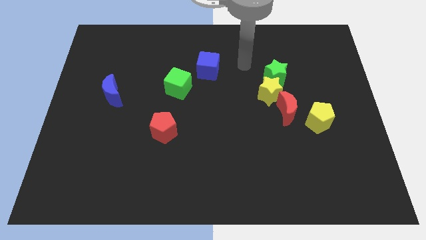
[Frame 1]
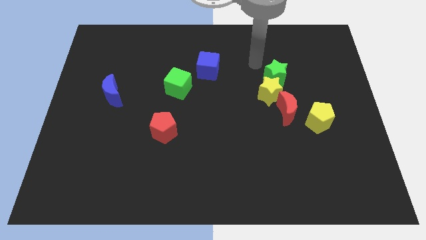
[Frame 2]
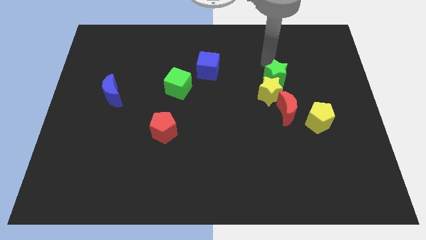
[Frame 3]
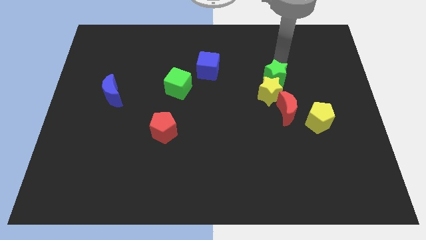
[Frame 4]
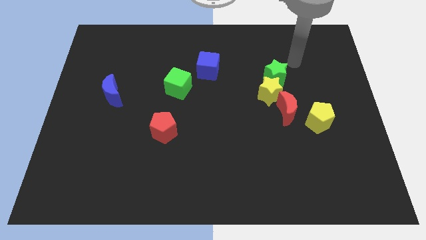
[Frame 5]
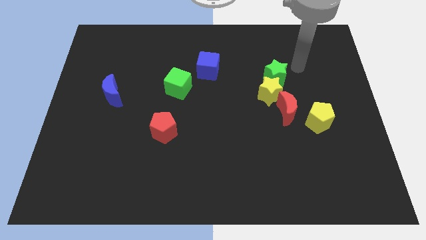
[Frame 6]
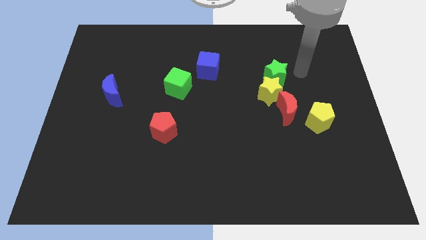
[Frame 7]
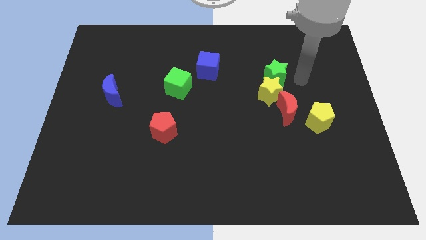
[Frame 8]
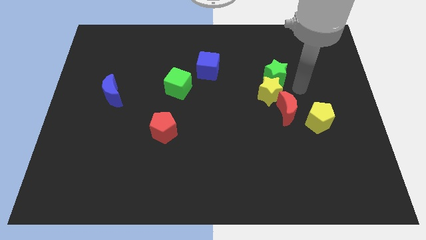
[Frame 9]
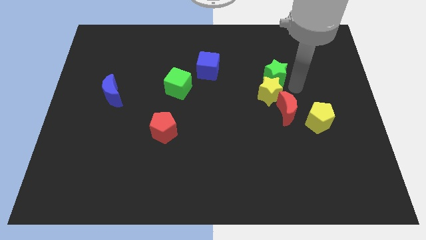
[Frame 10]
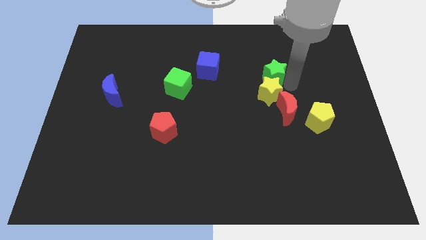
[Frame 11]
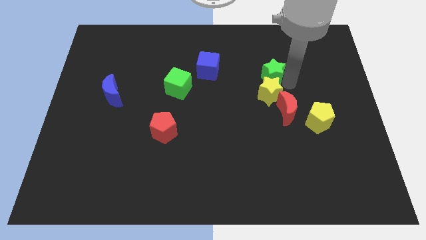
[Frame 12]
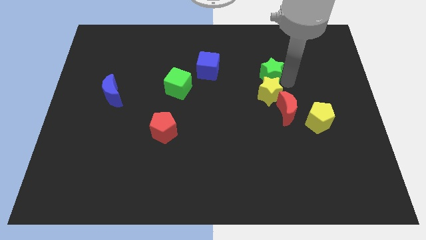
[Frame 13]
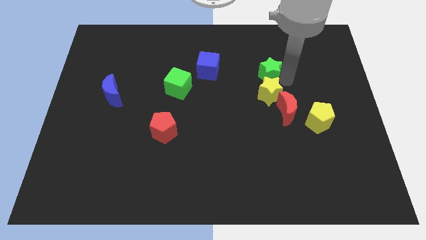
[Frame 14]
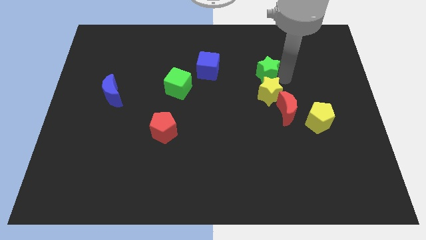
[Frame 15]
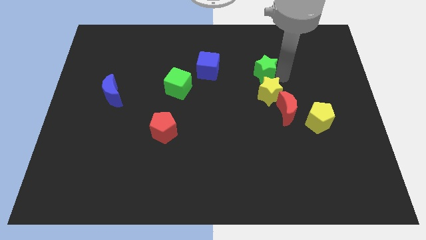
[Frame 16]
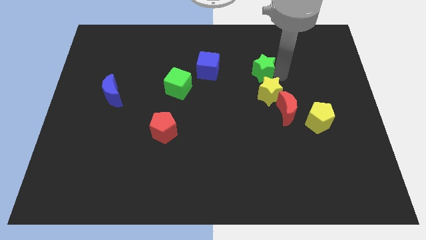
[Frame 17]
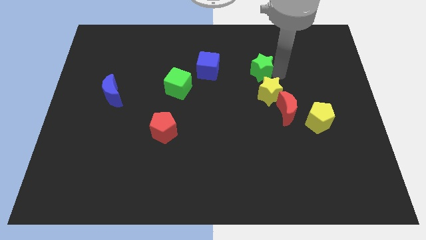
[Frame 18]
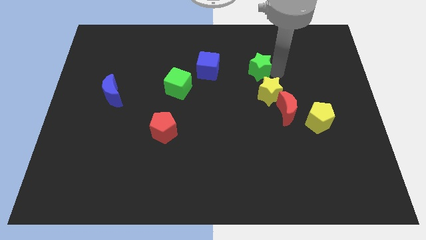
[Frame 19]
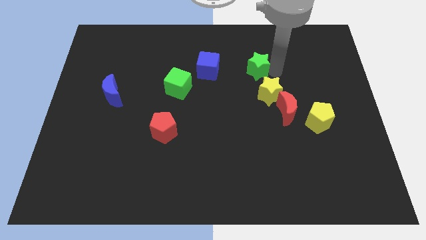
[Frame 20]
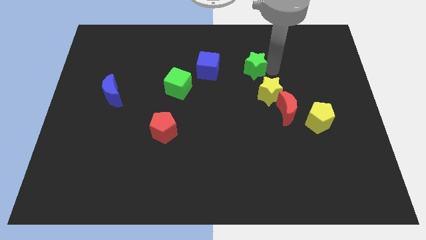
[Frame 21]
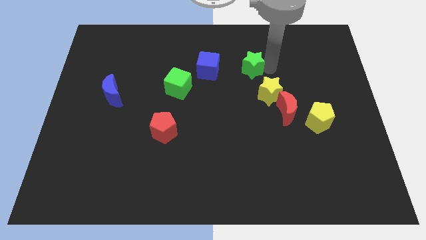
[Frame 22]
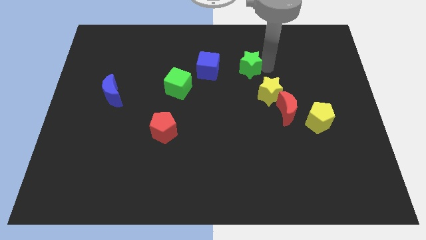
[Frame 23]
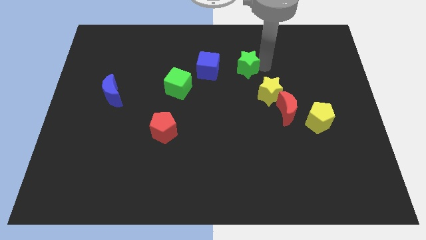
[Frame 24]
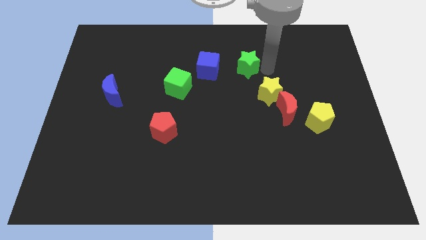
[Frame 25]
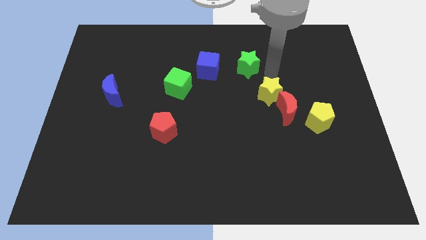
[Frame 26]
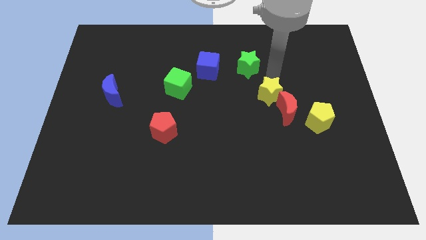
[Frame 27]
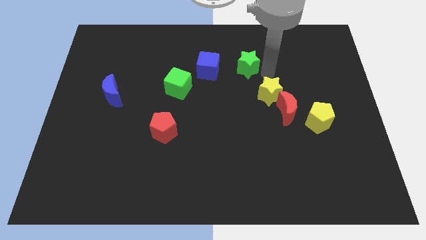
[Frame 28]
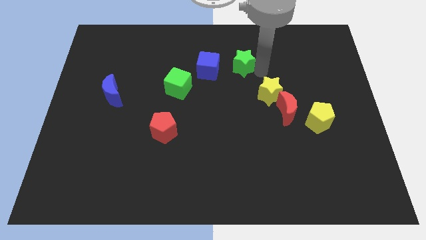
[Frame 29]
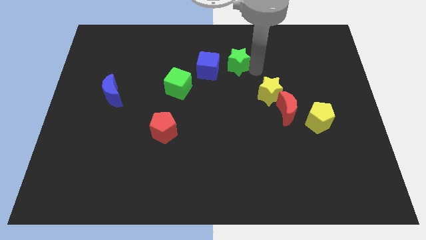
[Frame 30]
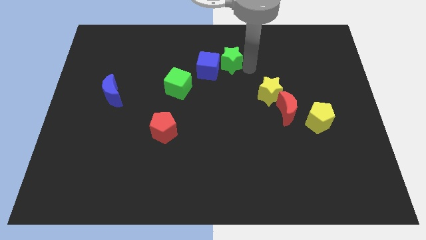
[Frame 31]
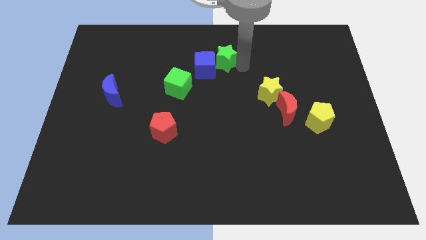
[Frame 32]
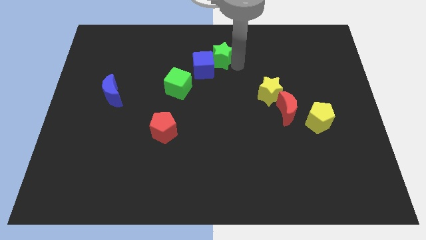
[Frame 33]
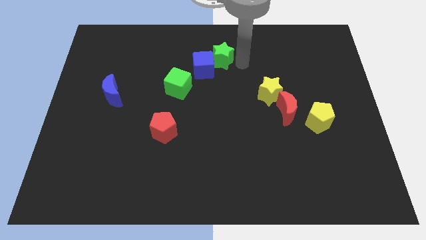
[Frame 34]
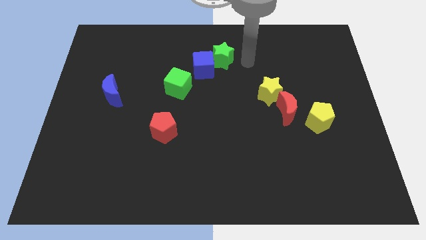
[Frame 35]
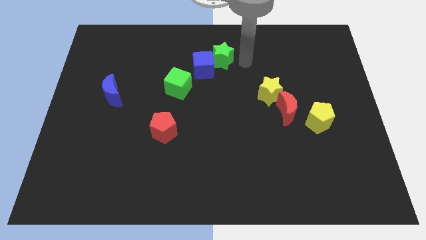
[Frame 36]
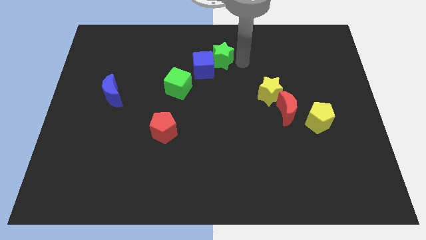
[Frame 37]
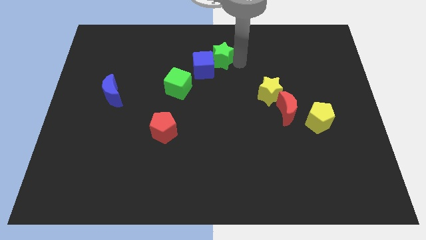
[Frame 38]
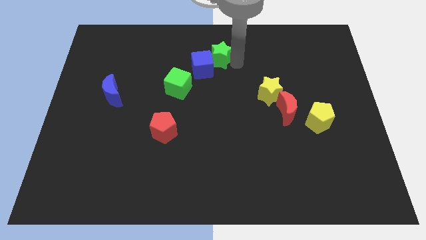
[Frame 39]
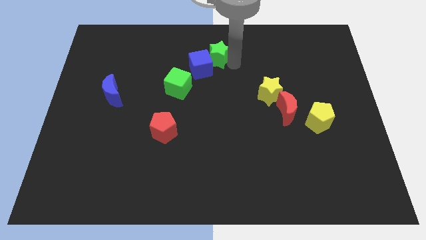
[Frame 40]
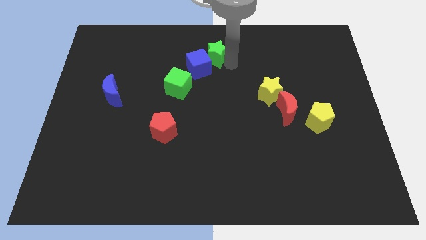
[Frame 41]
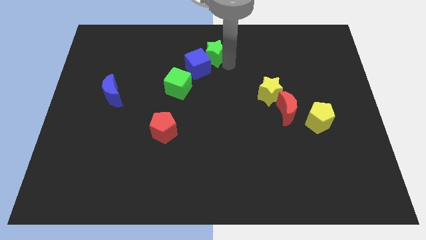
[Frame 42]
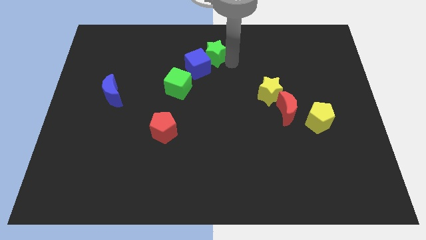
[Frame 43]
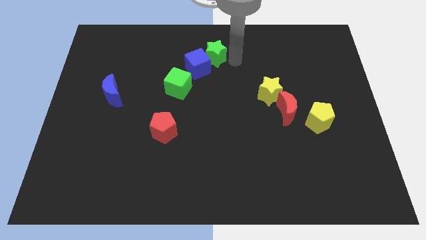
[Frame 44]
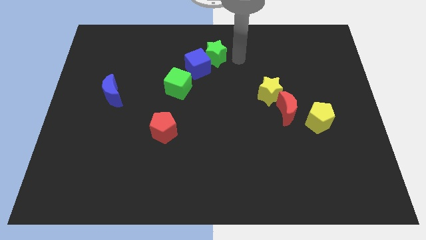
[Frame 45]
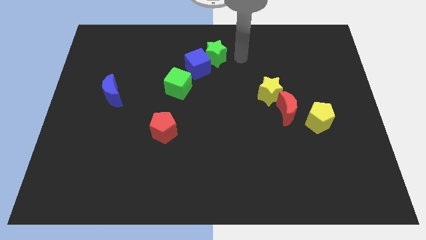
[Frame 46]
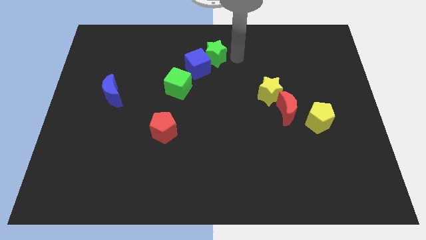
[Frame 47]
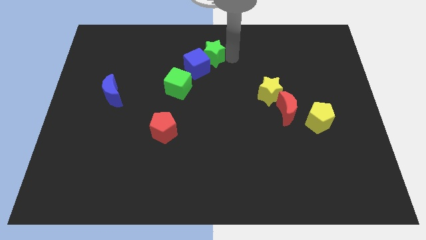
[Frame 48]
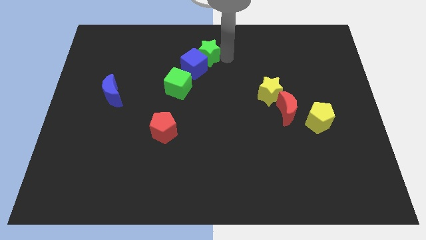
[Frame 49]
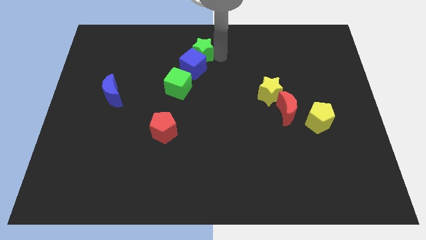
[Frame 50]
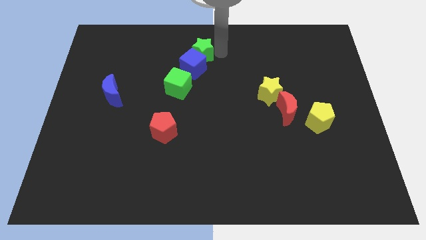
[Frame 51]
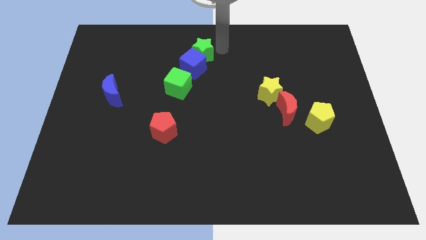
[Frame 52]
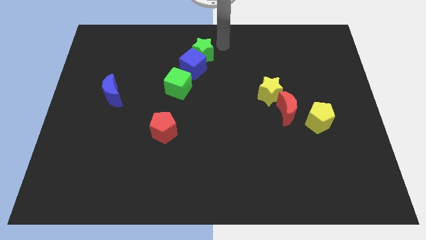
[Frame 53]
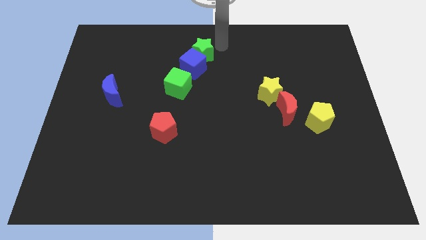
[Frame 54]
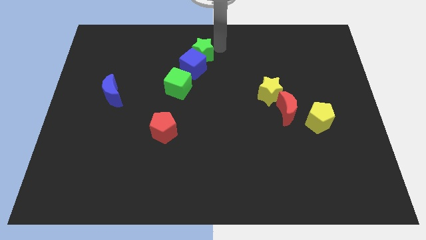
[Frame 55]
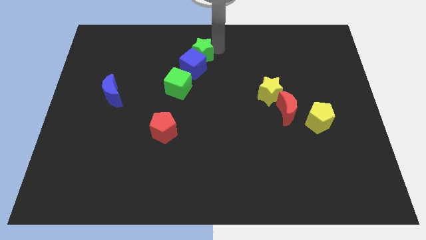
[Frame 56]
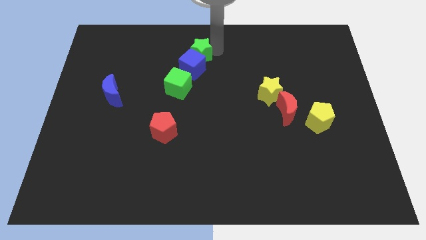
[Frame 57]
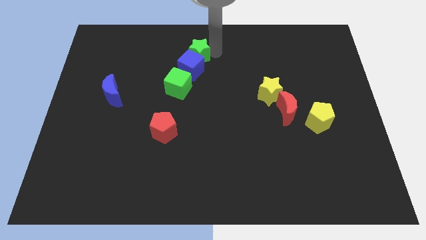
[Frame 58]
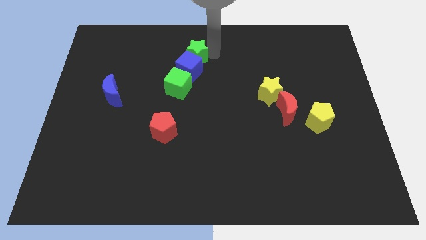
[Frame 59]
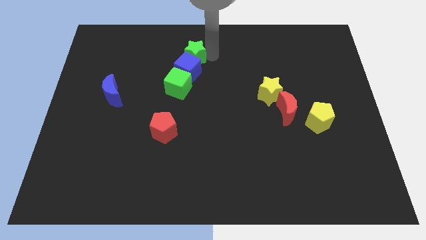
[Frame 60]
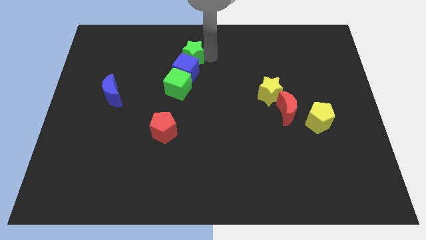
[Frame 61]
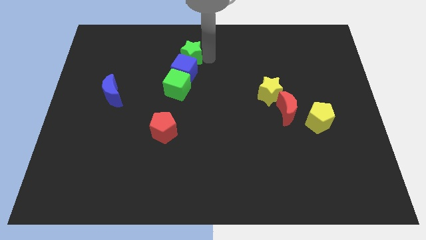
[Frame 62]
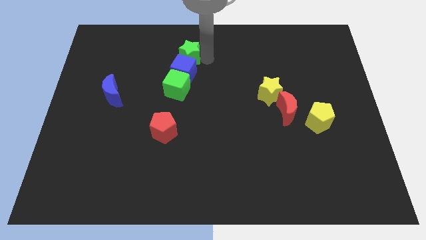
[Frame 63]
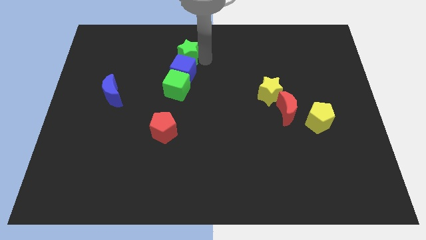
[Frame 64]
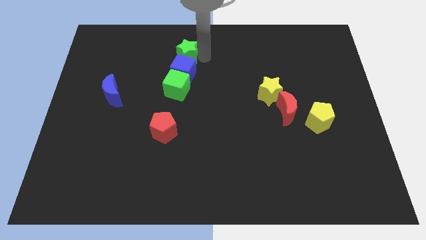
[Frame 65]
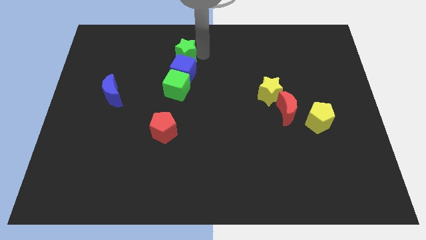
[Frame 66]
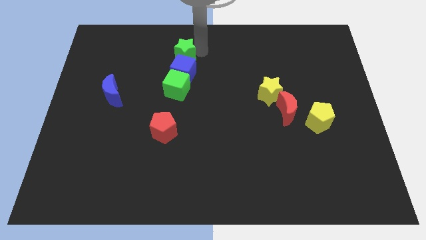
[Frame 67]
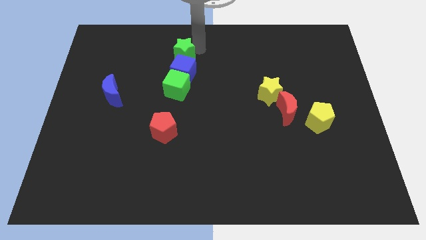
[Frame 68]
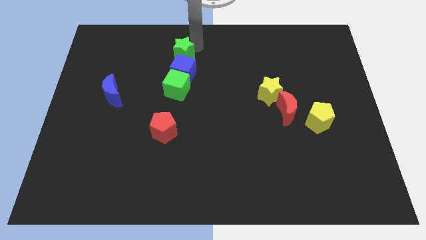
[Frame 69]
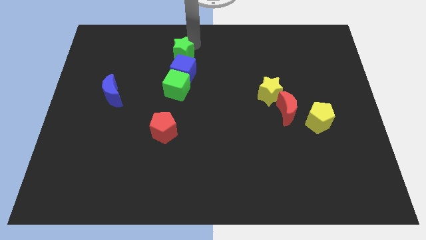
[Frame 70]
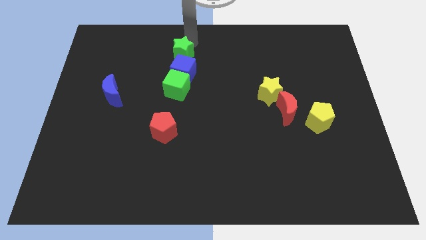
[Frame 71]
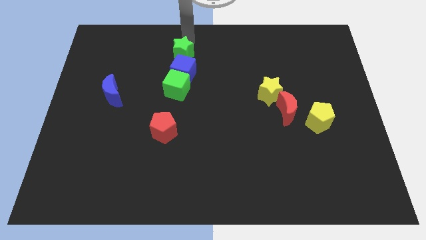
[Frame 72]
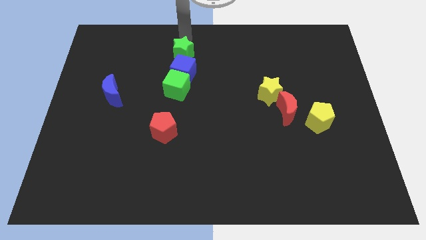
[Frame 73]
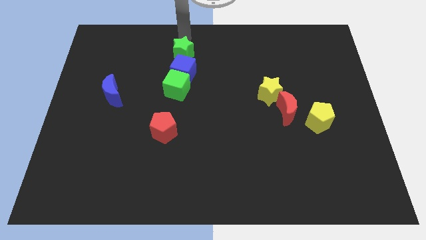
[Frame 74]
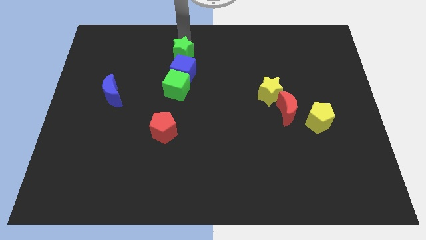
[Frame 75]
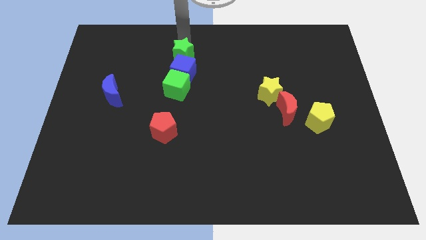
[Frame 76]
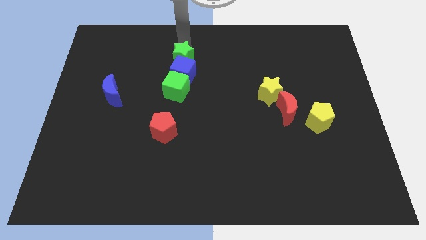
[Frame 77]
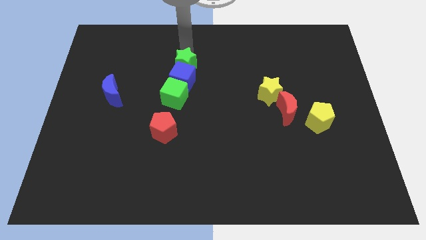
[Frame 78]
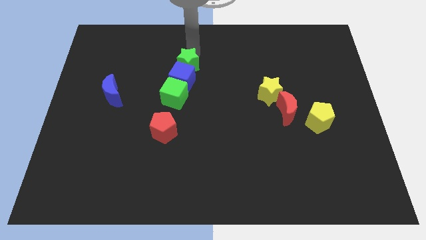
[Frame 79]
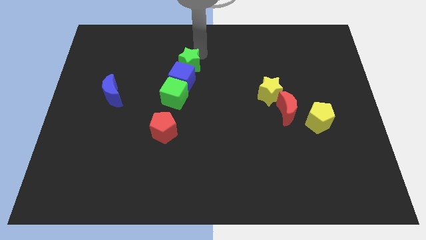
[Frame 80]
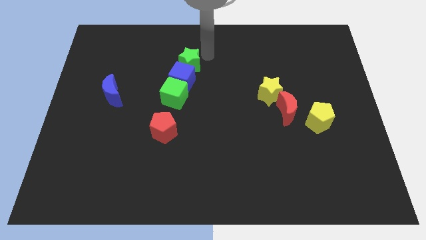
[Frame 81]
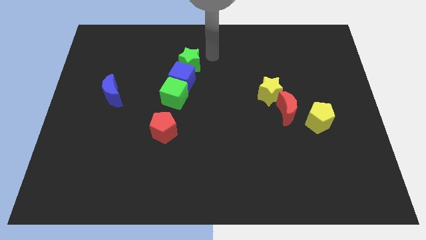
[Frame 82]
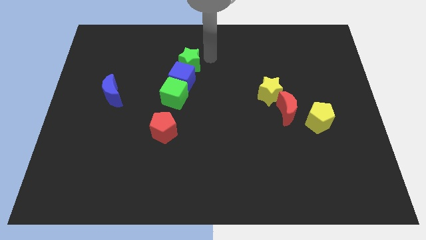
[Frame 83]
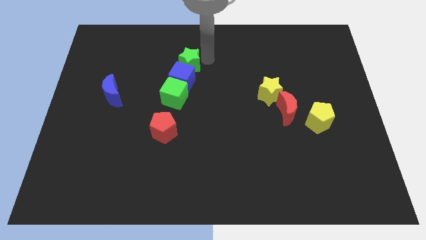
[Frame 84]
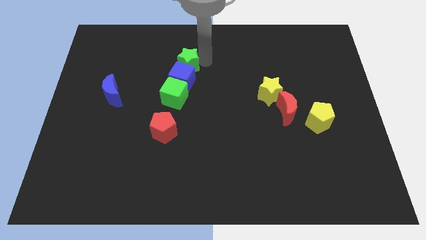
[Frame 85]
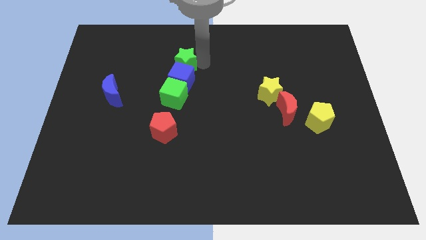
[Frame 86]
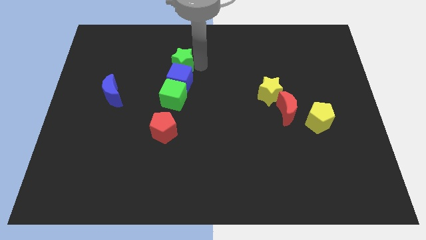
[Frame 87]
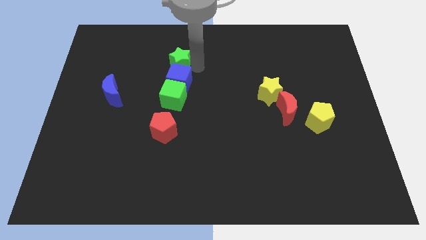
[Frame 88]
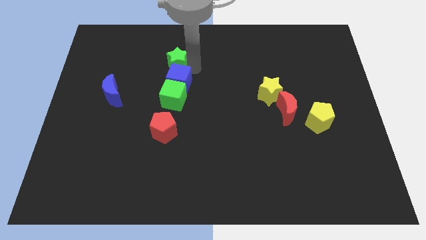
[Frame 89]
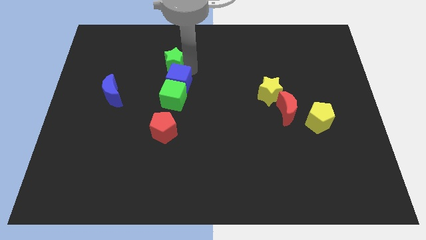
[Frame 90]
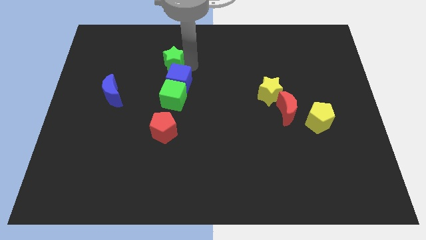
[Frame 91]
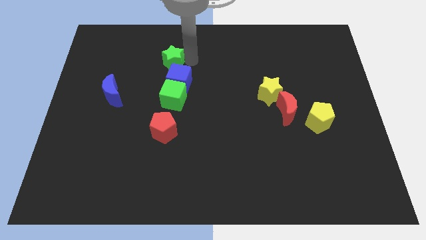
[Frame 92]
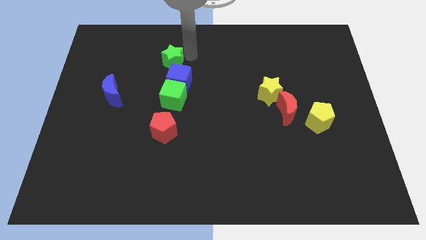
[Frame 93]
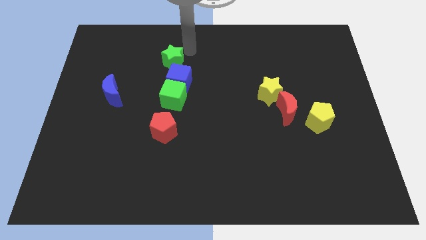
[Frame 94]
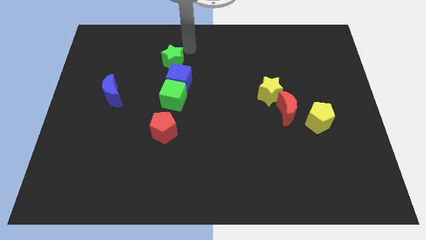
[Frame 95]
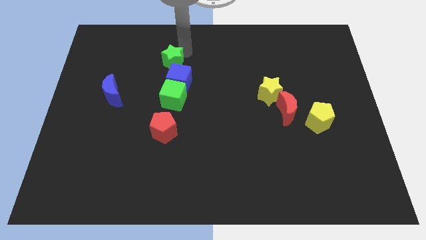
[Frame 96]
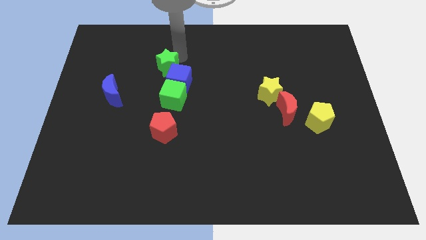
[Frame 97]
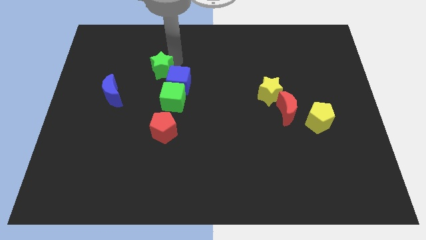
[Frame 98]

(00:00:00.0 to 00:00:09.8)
move the green star to the top left side of the green cube
